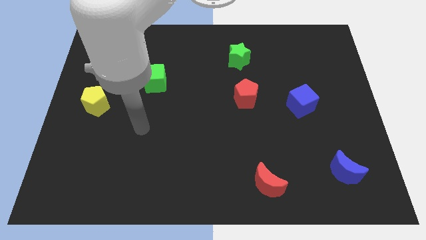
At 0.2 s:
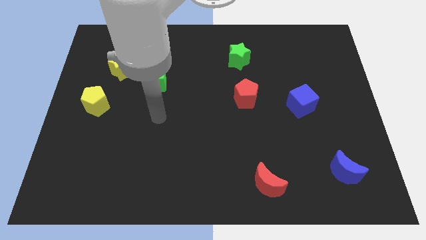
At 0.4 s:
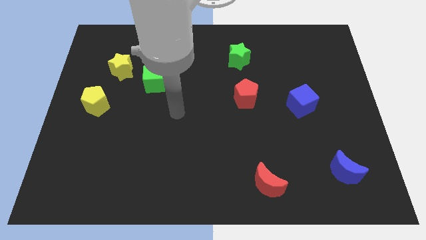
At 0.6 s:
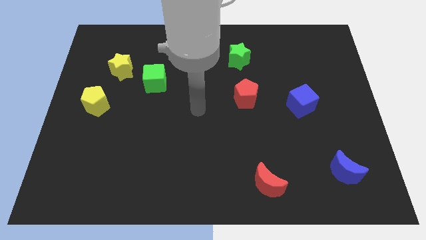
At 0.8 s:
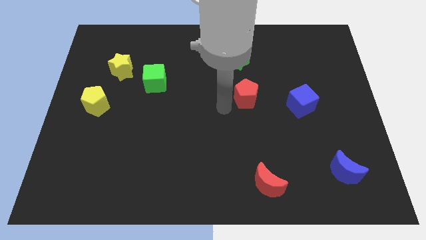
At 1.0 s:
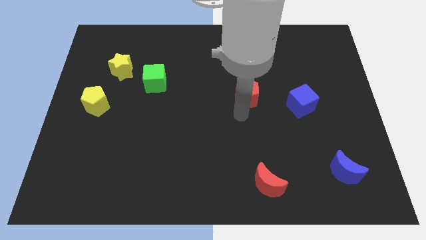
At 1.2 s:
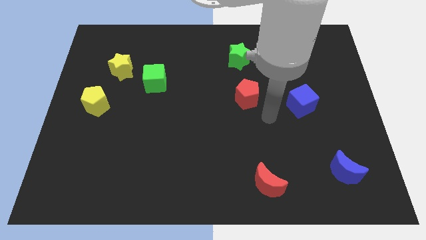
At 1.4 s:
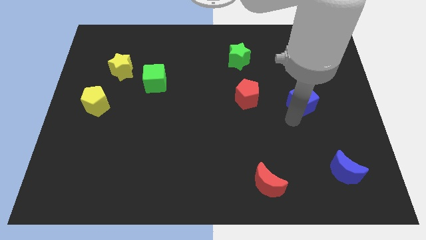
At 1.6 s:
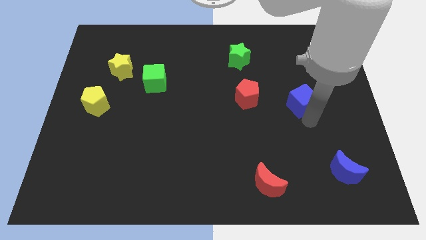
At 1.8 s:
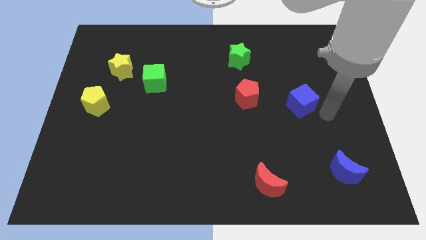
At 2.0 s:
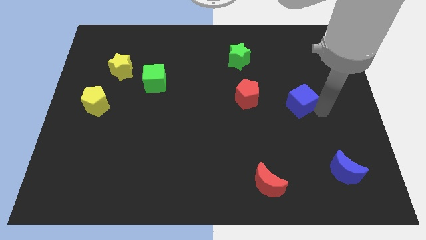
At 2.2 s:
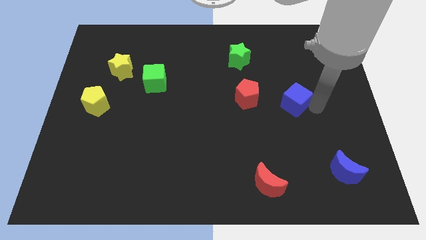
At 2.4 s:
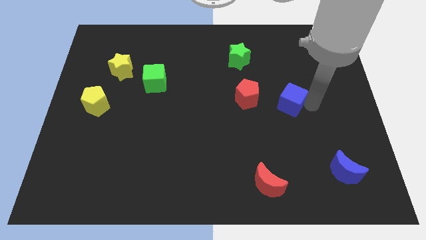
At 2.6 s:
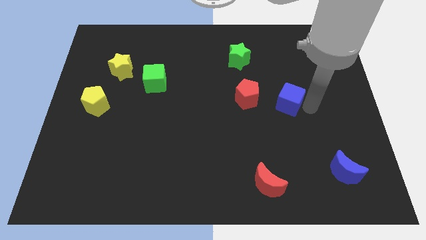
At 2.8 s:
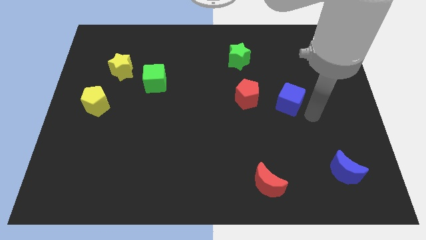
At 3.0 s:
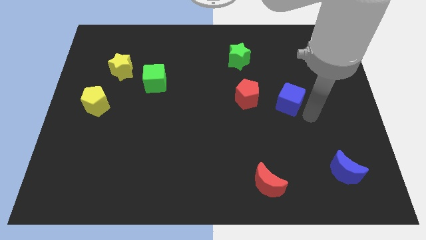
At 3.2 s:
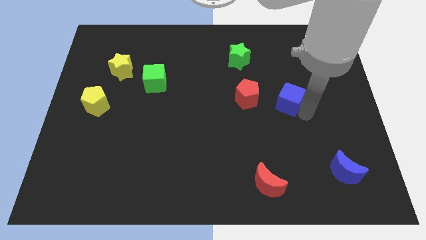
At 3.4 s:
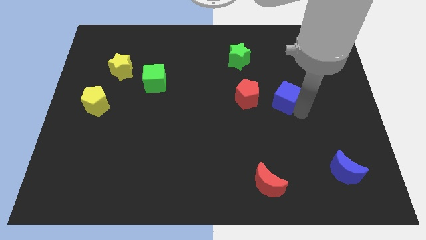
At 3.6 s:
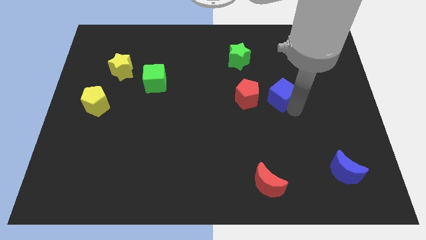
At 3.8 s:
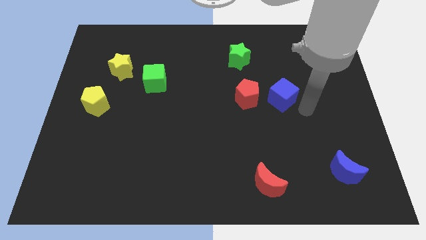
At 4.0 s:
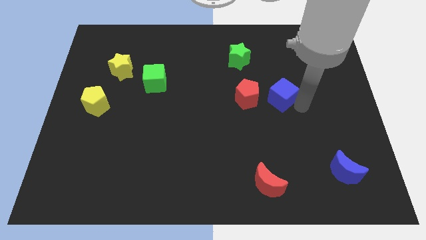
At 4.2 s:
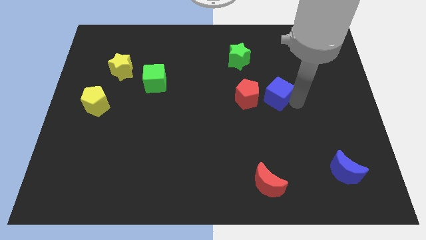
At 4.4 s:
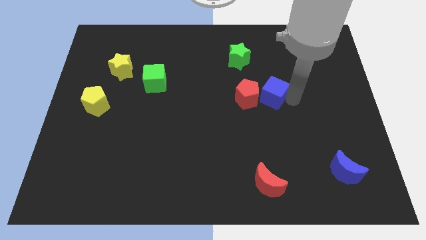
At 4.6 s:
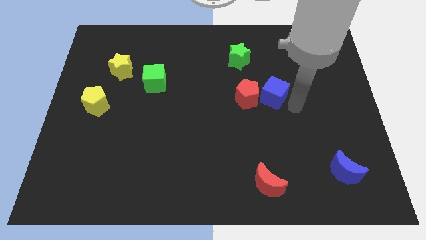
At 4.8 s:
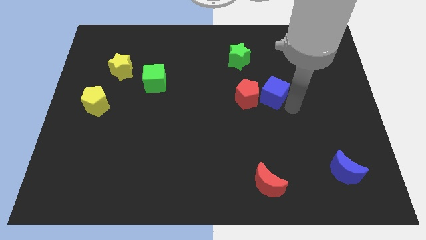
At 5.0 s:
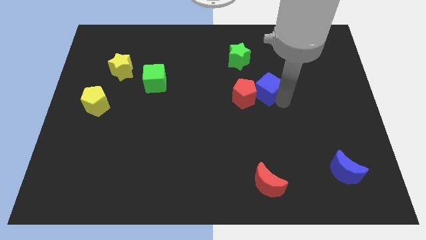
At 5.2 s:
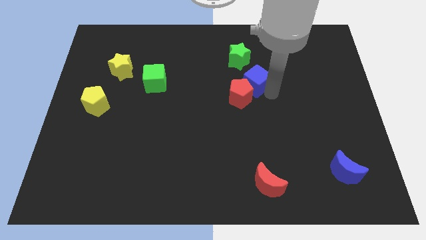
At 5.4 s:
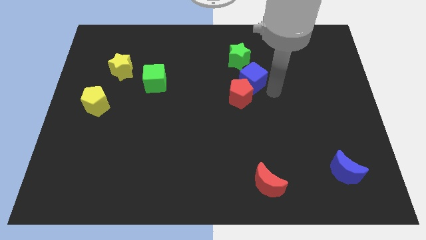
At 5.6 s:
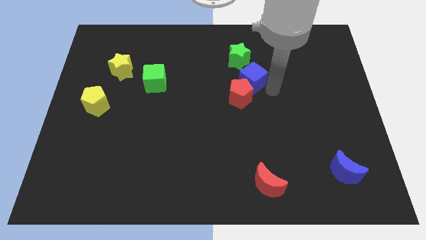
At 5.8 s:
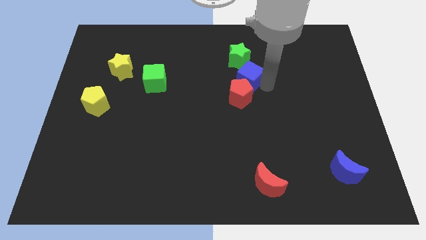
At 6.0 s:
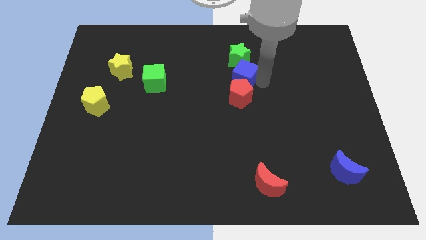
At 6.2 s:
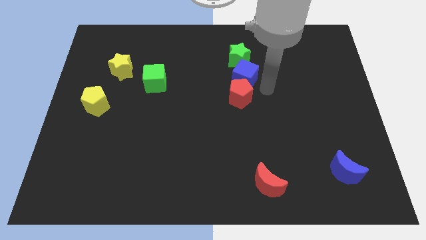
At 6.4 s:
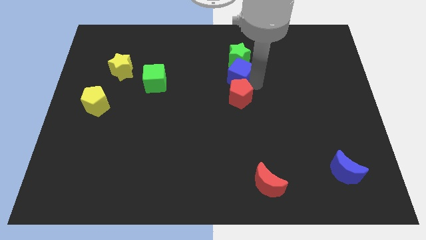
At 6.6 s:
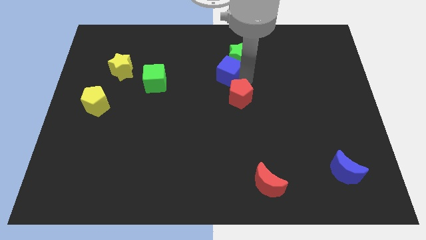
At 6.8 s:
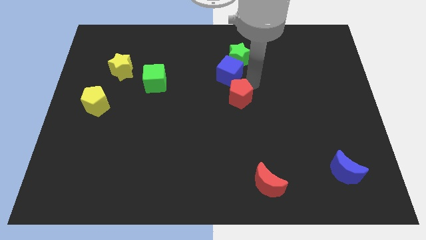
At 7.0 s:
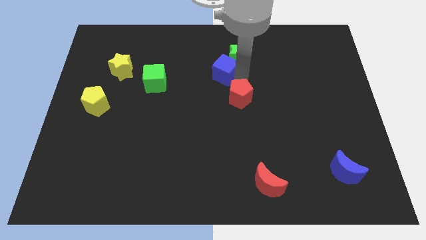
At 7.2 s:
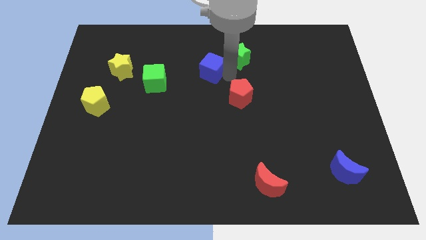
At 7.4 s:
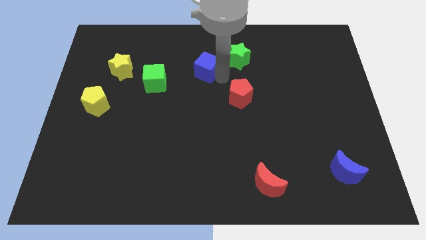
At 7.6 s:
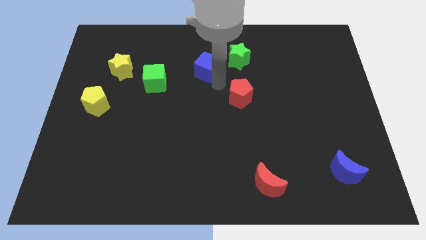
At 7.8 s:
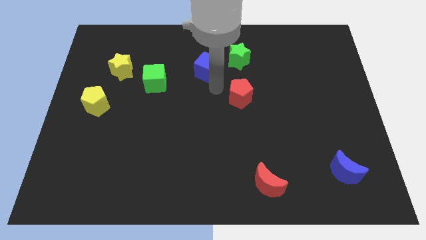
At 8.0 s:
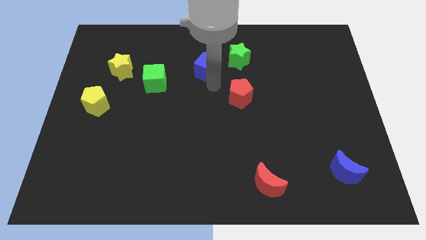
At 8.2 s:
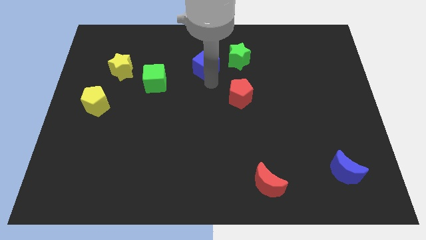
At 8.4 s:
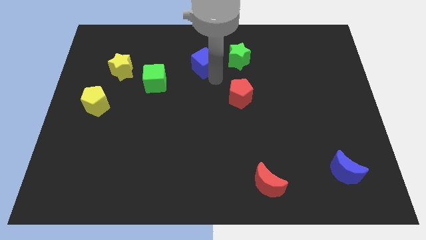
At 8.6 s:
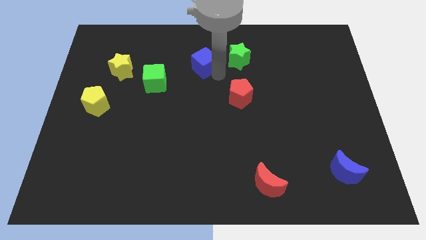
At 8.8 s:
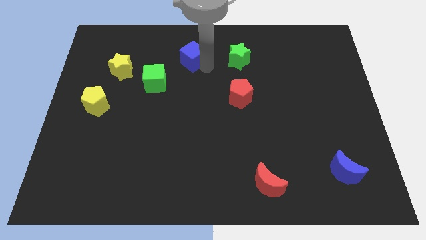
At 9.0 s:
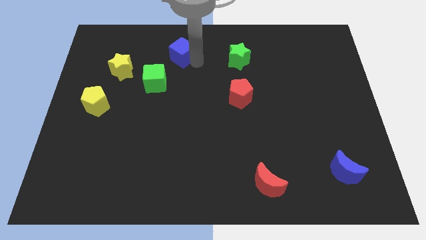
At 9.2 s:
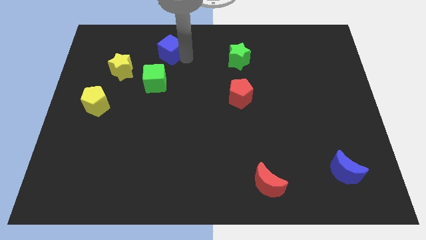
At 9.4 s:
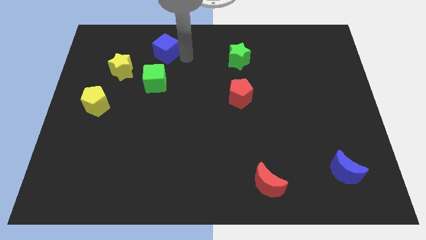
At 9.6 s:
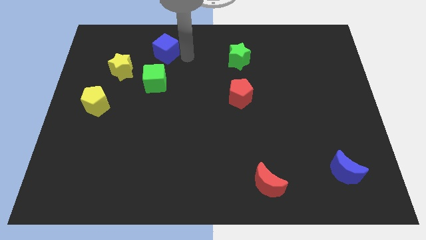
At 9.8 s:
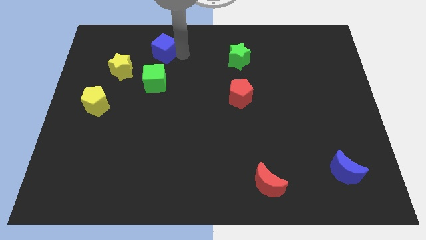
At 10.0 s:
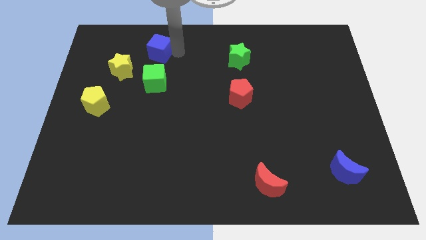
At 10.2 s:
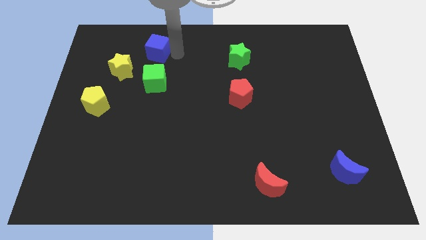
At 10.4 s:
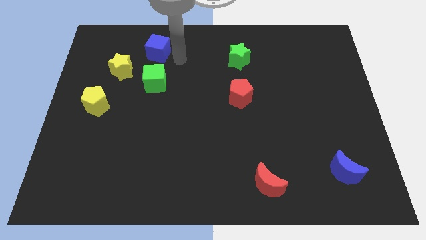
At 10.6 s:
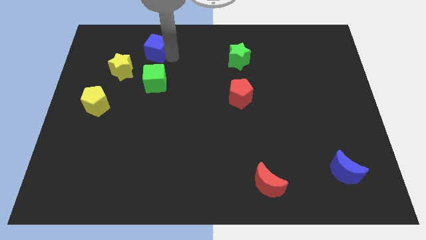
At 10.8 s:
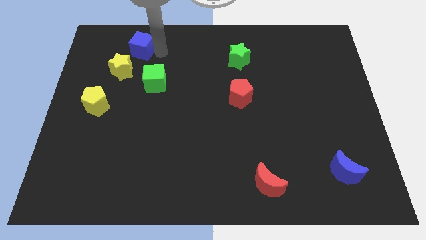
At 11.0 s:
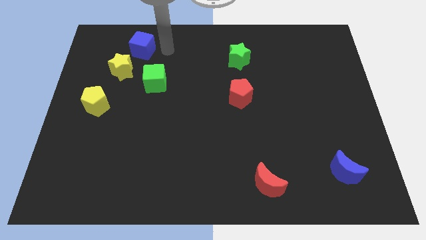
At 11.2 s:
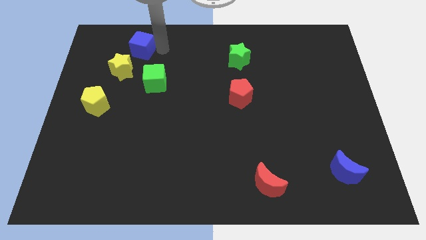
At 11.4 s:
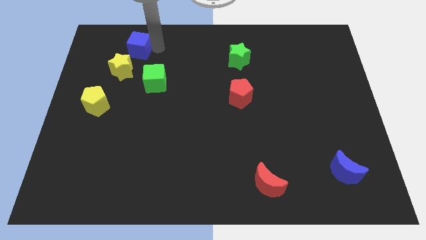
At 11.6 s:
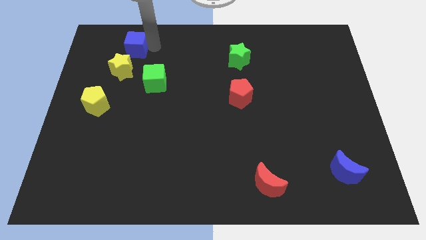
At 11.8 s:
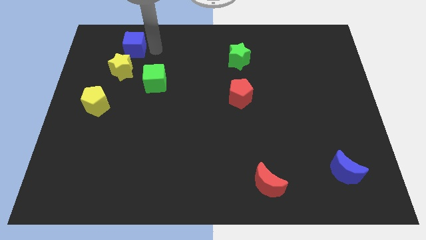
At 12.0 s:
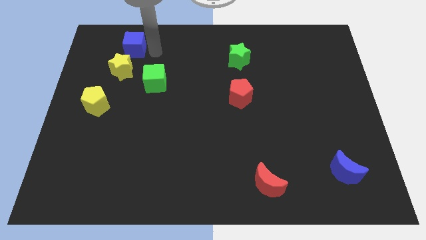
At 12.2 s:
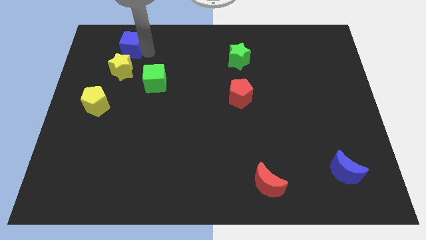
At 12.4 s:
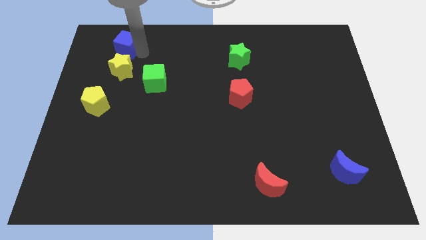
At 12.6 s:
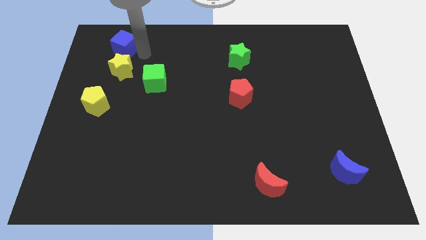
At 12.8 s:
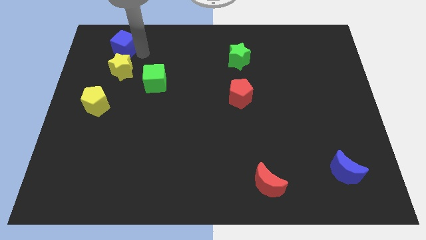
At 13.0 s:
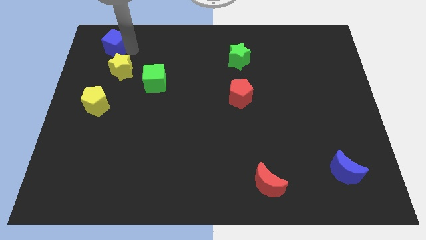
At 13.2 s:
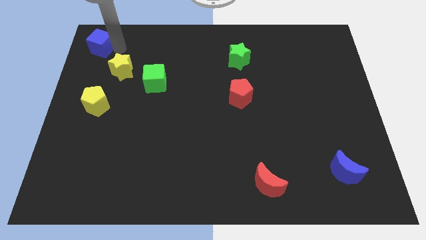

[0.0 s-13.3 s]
move the blue cube to the top left corner

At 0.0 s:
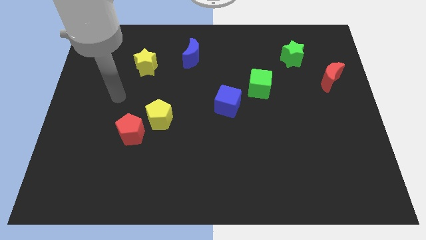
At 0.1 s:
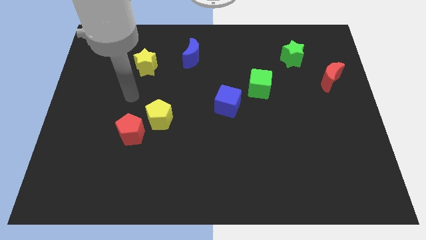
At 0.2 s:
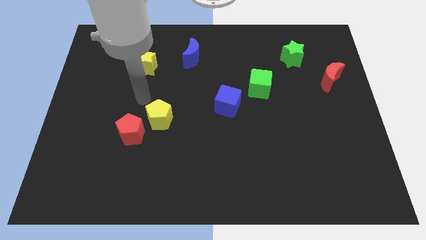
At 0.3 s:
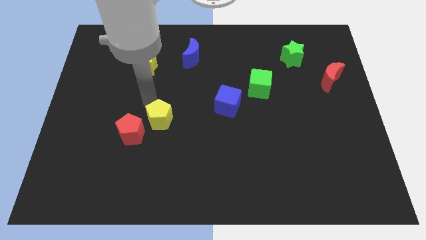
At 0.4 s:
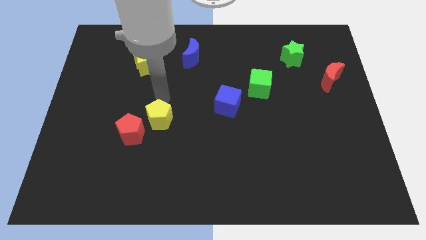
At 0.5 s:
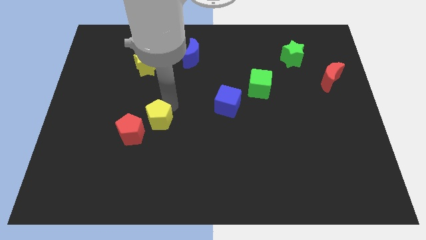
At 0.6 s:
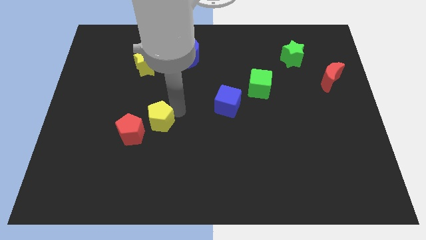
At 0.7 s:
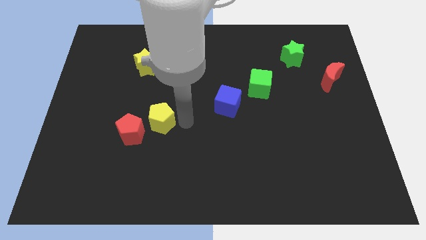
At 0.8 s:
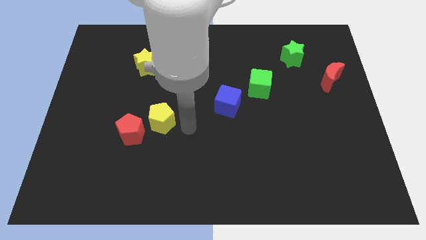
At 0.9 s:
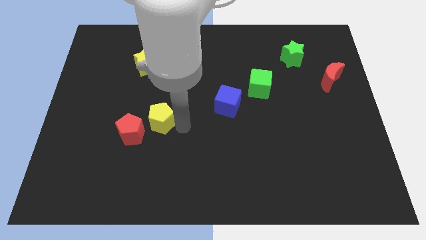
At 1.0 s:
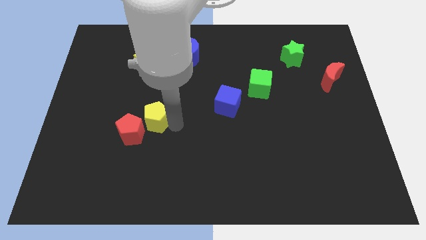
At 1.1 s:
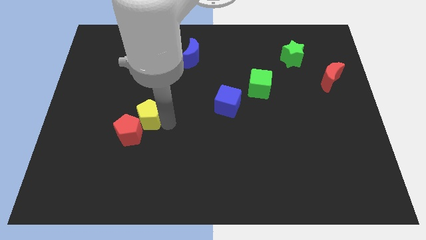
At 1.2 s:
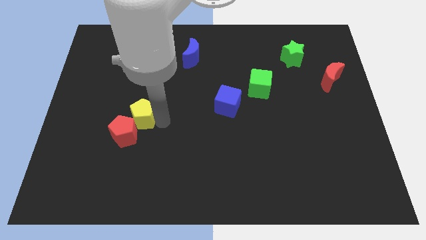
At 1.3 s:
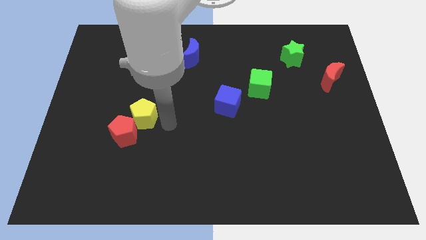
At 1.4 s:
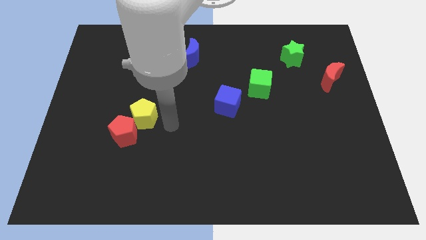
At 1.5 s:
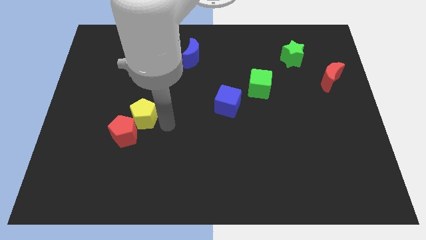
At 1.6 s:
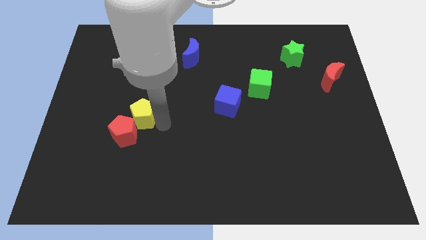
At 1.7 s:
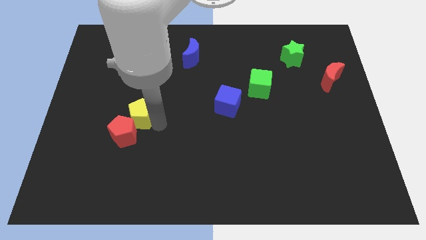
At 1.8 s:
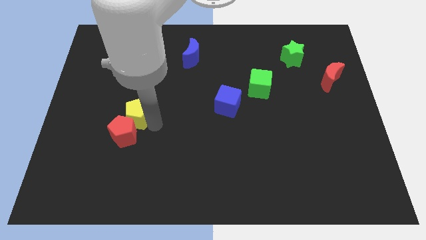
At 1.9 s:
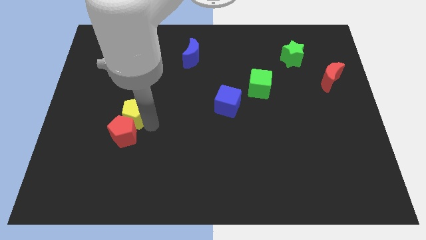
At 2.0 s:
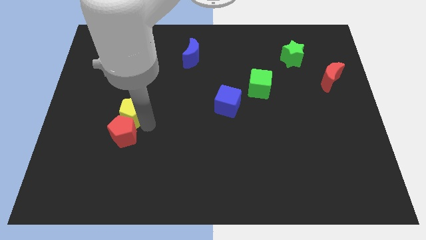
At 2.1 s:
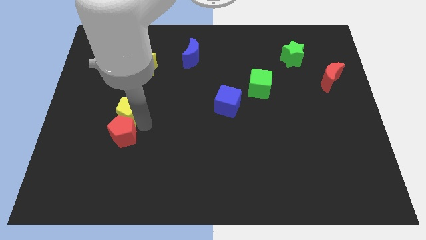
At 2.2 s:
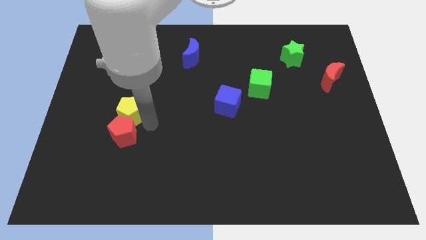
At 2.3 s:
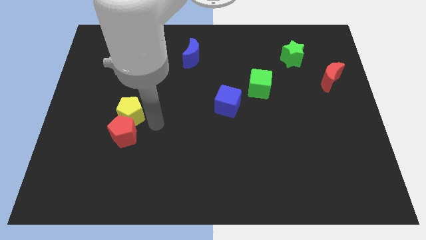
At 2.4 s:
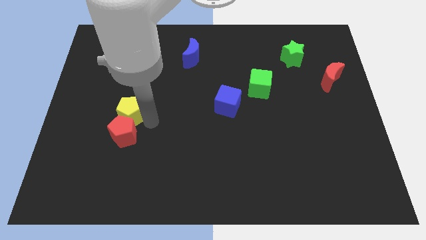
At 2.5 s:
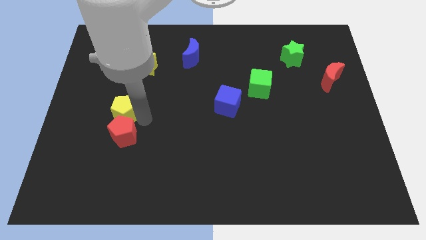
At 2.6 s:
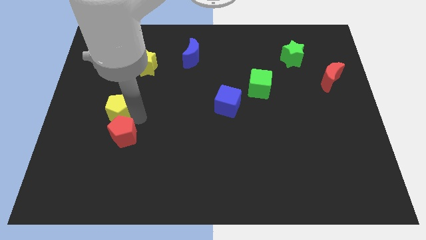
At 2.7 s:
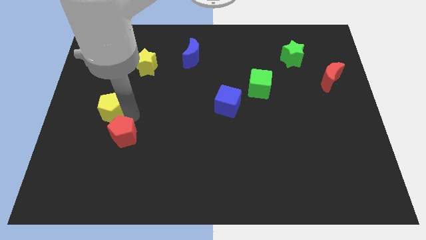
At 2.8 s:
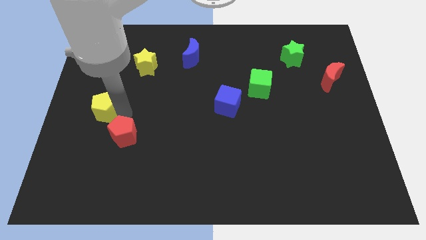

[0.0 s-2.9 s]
slide the yellow pentagon to the left side of the board
